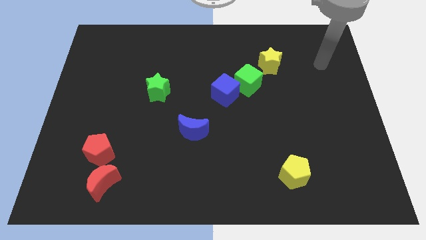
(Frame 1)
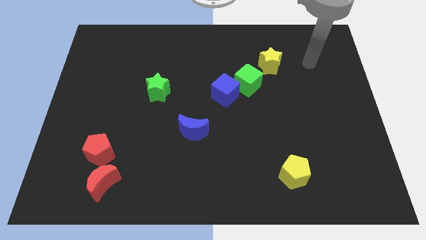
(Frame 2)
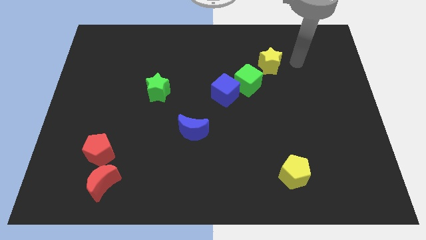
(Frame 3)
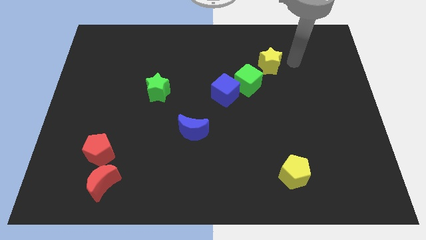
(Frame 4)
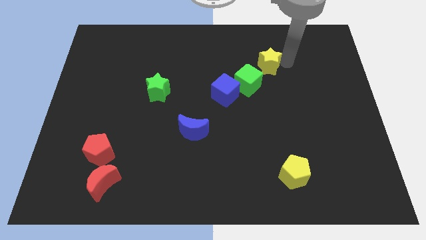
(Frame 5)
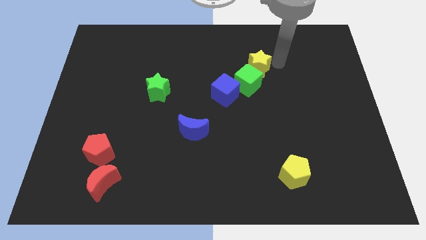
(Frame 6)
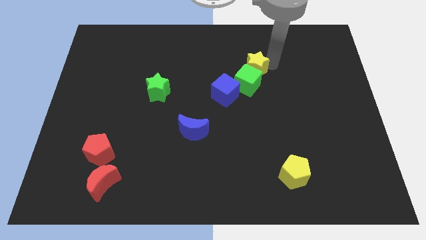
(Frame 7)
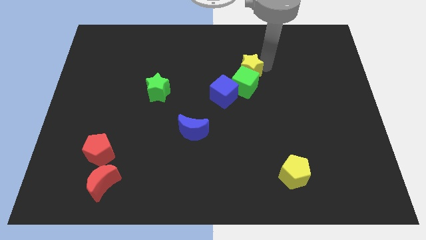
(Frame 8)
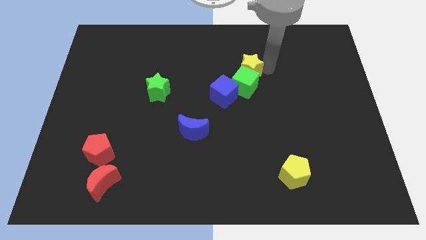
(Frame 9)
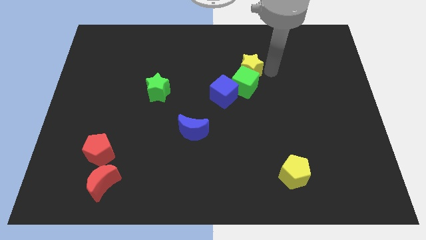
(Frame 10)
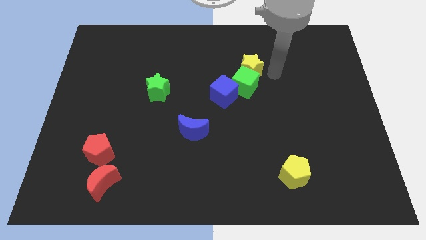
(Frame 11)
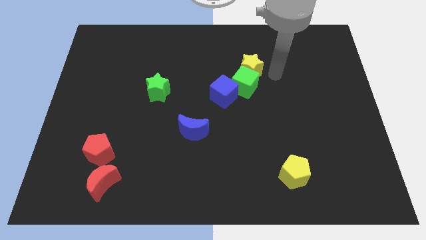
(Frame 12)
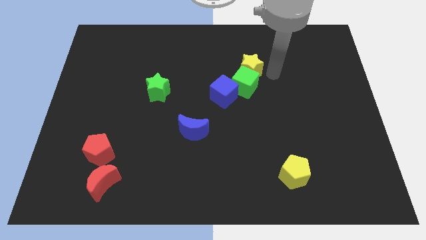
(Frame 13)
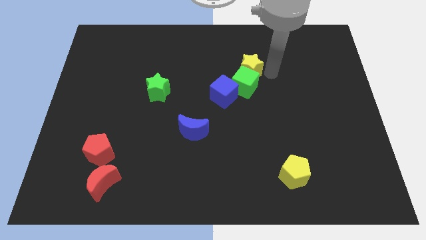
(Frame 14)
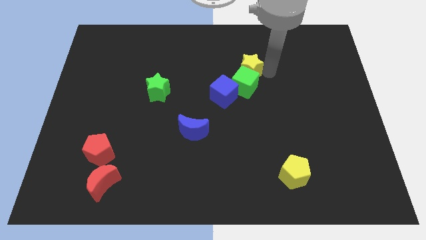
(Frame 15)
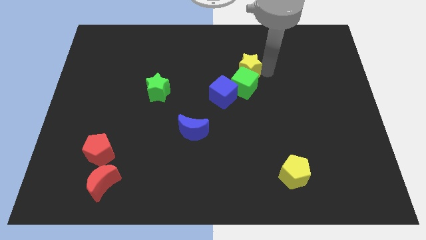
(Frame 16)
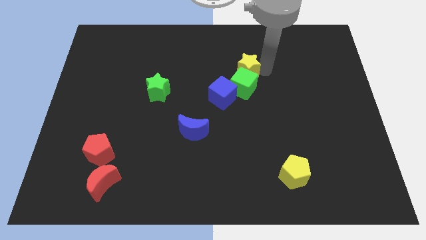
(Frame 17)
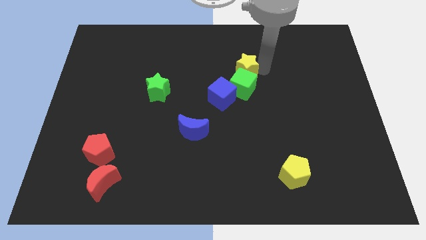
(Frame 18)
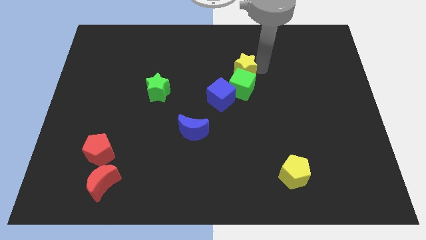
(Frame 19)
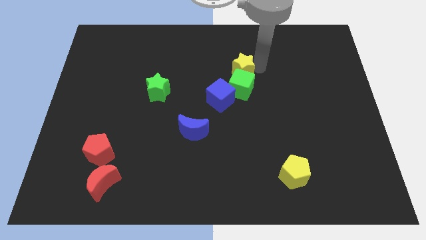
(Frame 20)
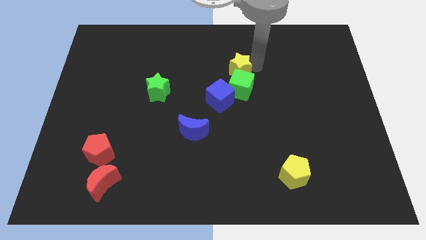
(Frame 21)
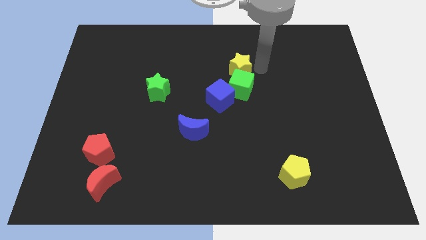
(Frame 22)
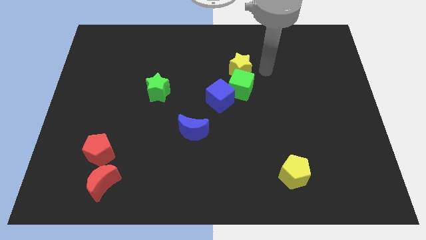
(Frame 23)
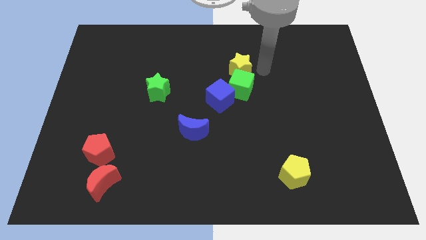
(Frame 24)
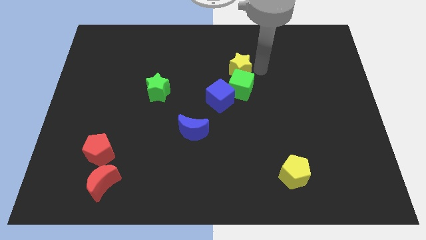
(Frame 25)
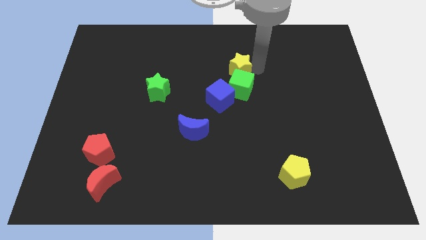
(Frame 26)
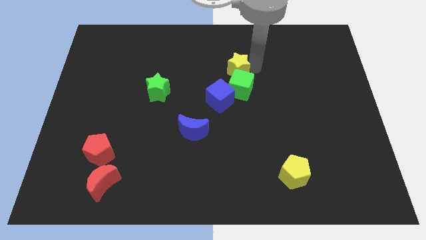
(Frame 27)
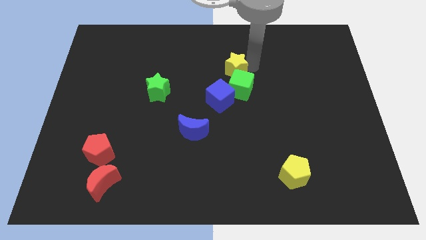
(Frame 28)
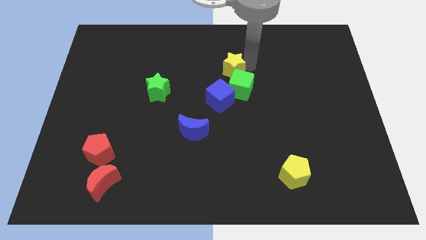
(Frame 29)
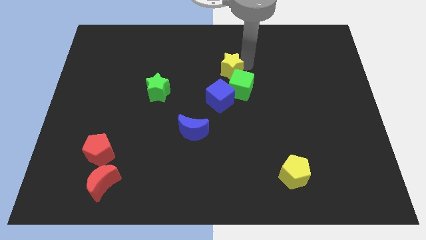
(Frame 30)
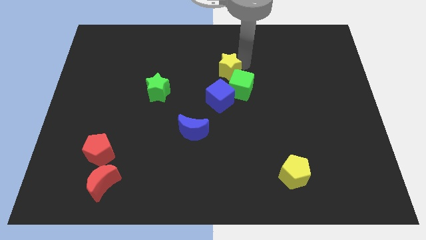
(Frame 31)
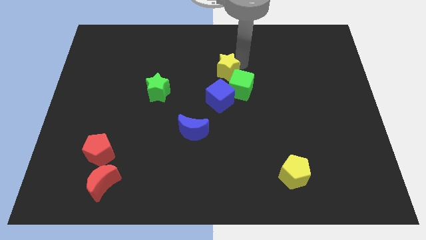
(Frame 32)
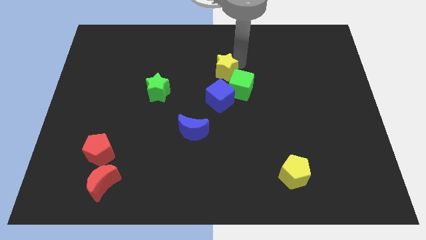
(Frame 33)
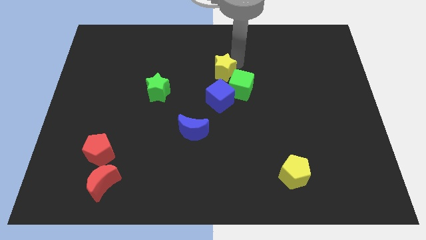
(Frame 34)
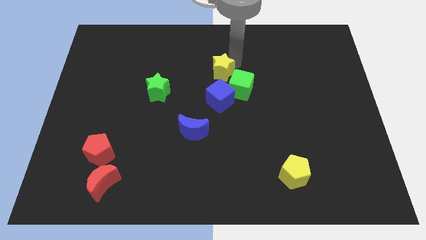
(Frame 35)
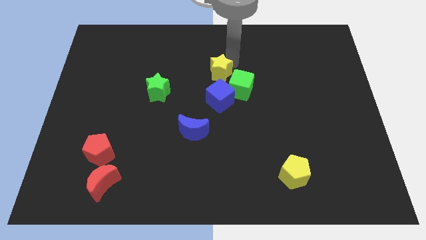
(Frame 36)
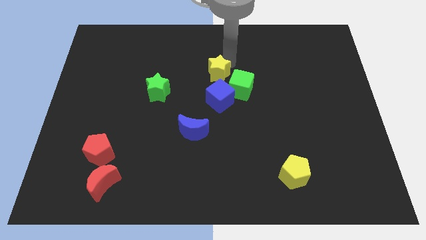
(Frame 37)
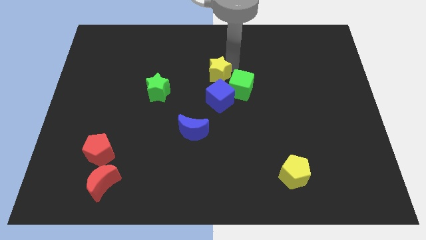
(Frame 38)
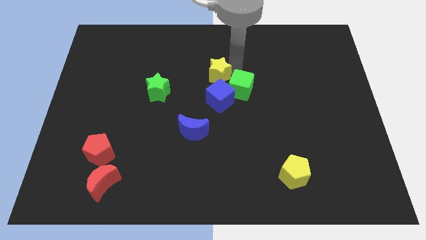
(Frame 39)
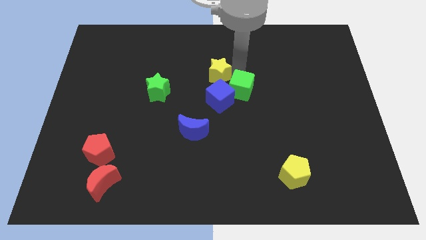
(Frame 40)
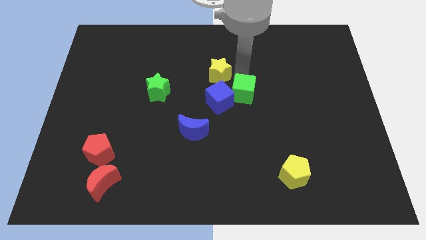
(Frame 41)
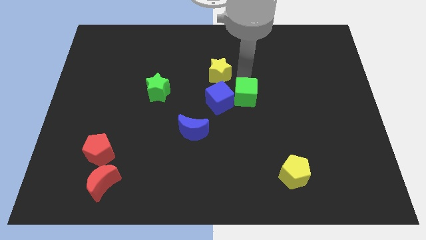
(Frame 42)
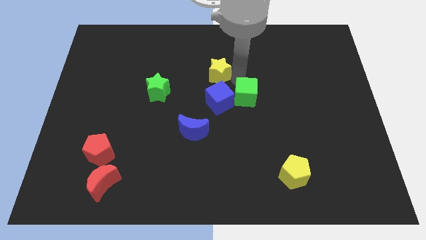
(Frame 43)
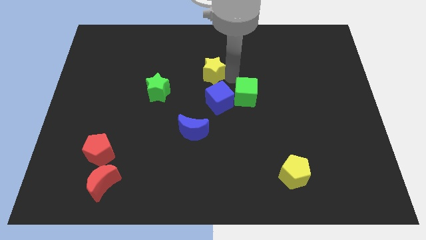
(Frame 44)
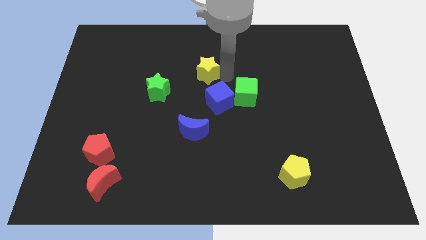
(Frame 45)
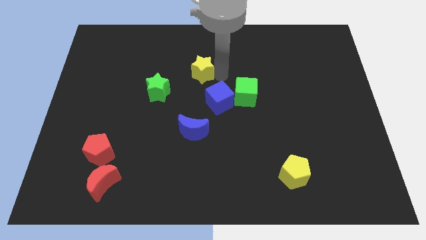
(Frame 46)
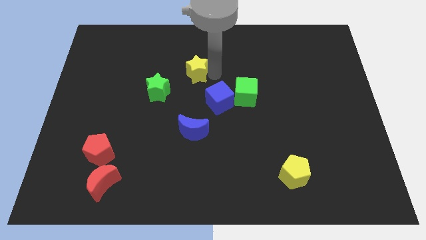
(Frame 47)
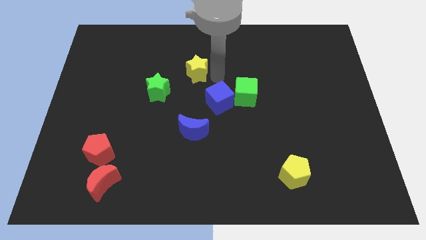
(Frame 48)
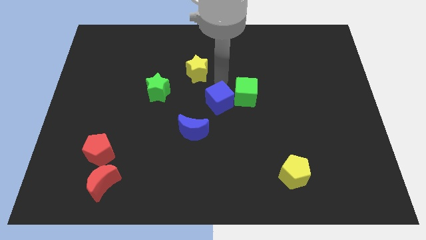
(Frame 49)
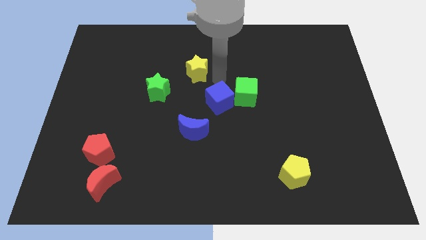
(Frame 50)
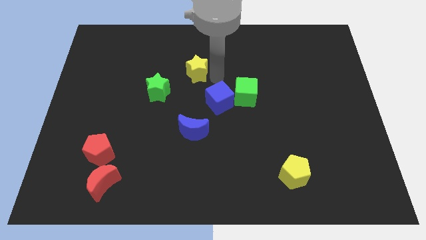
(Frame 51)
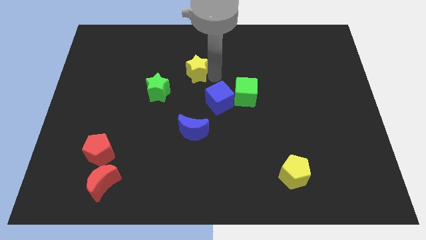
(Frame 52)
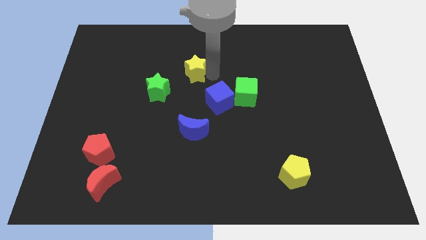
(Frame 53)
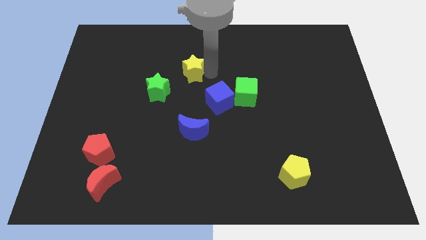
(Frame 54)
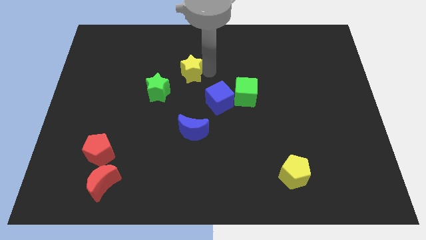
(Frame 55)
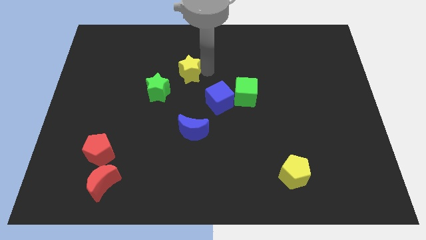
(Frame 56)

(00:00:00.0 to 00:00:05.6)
move the yellow star left

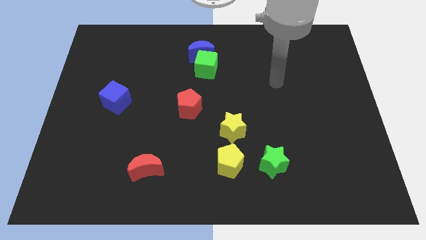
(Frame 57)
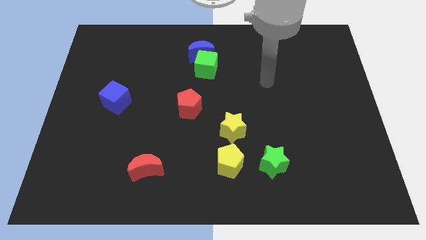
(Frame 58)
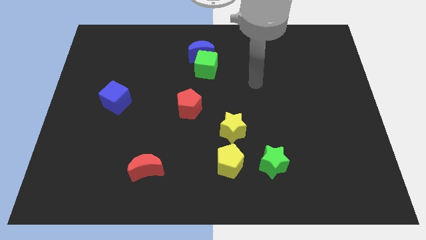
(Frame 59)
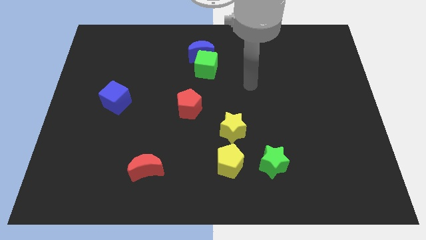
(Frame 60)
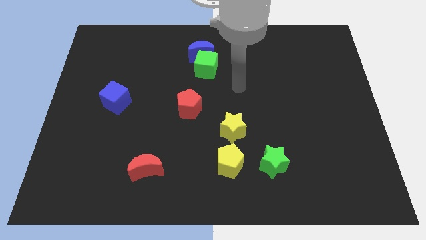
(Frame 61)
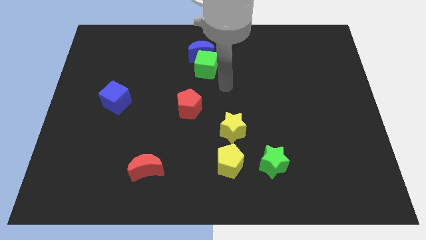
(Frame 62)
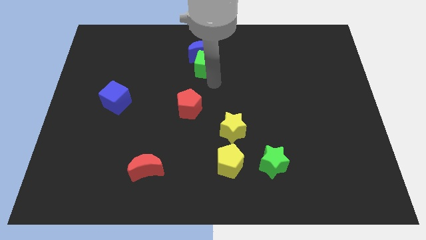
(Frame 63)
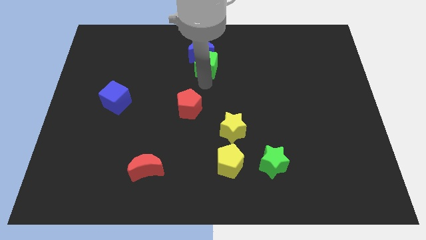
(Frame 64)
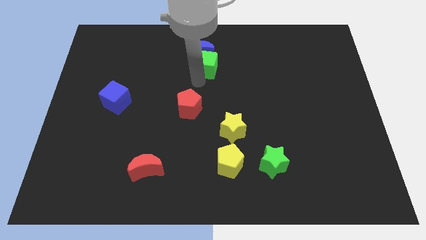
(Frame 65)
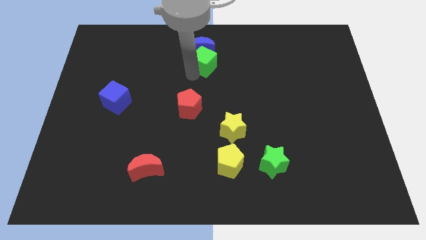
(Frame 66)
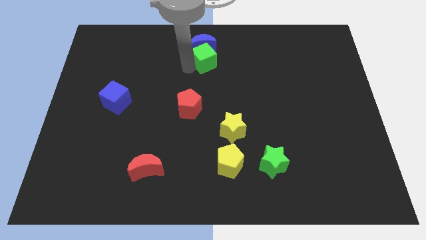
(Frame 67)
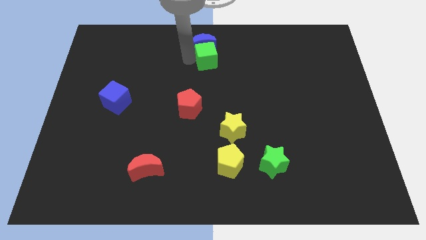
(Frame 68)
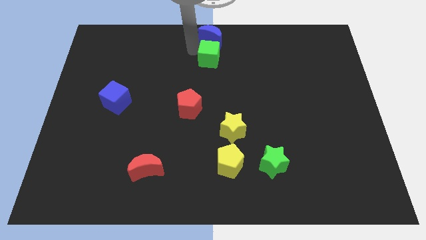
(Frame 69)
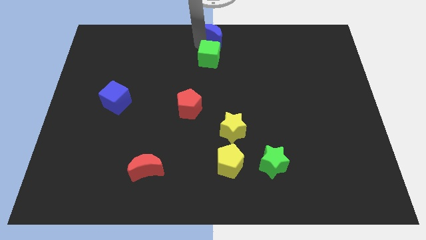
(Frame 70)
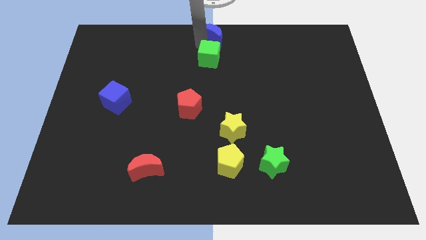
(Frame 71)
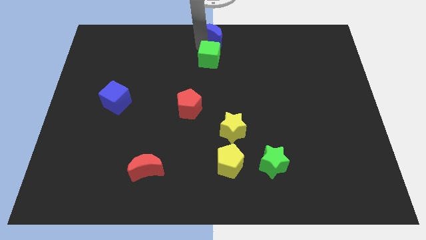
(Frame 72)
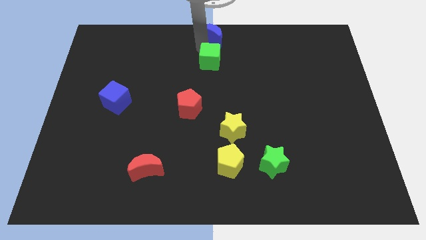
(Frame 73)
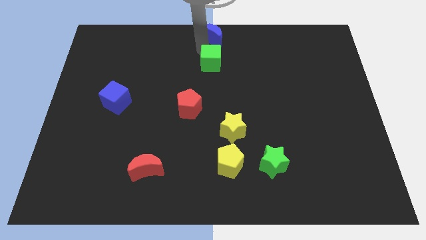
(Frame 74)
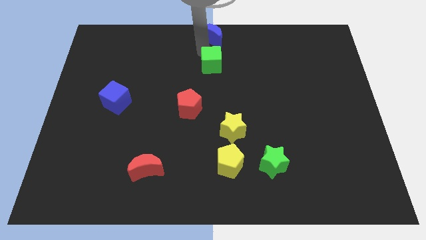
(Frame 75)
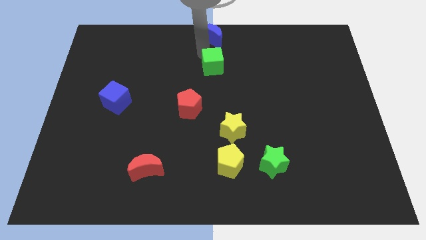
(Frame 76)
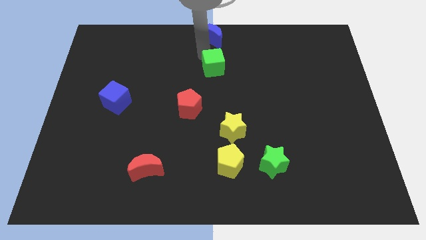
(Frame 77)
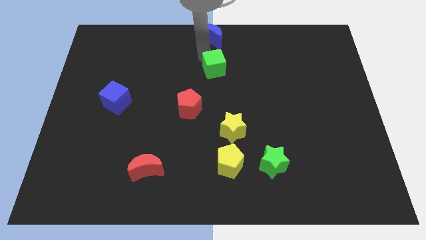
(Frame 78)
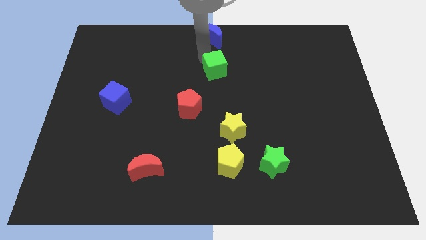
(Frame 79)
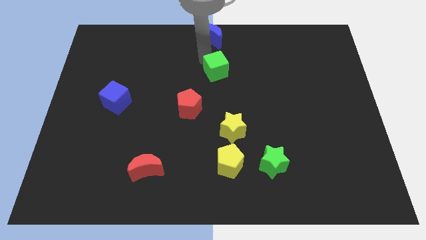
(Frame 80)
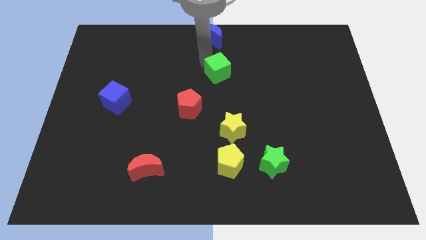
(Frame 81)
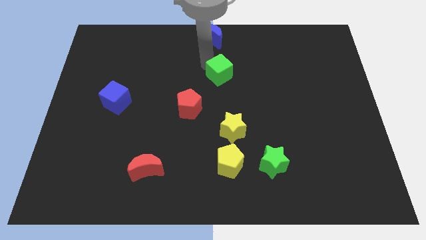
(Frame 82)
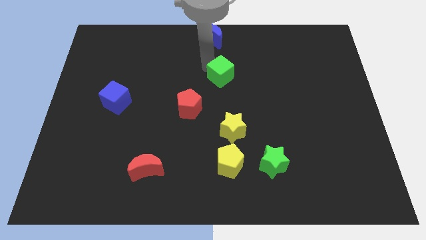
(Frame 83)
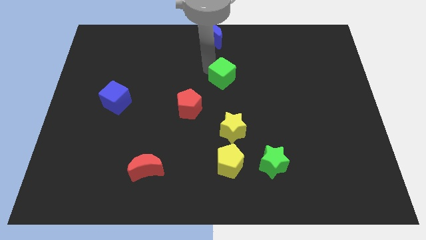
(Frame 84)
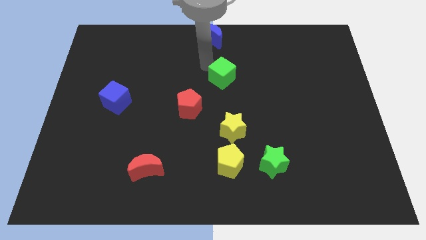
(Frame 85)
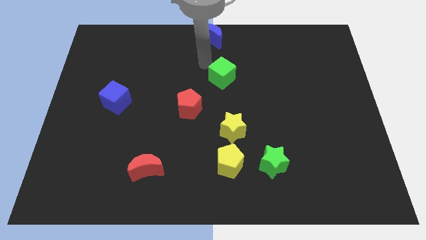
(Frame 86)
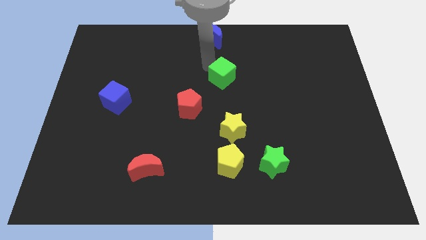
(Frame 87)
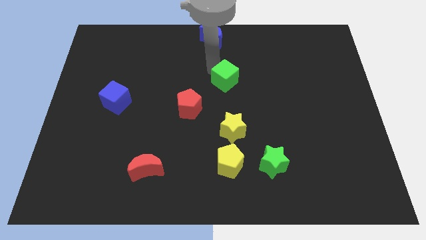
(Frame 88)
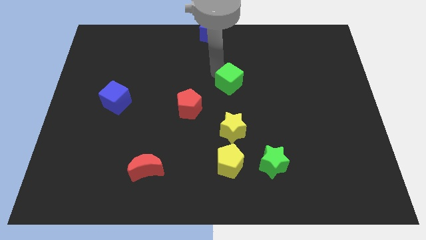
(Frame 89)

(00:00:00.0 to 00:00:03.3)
slide the green cube a little downwards and right
